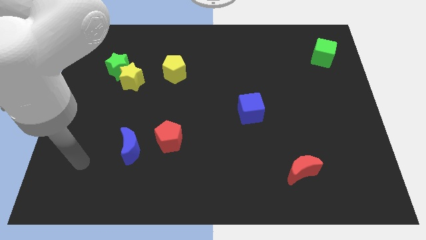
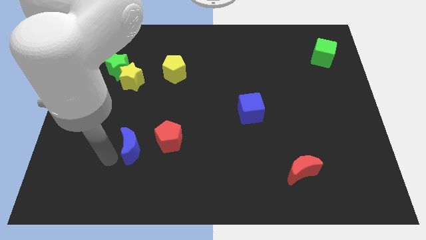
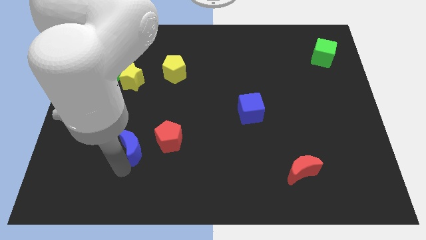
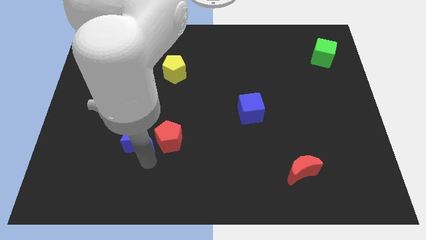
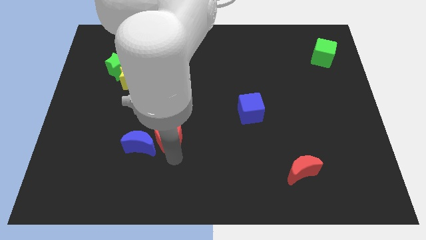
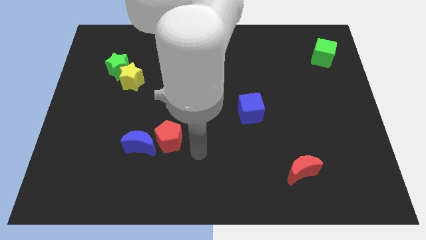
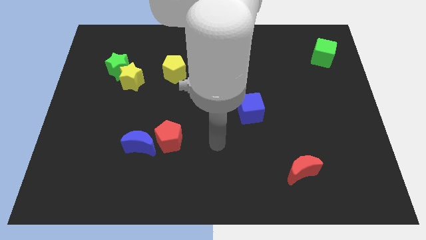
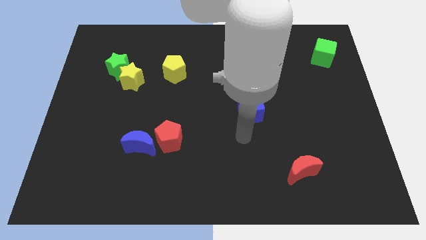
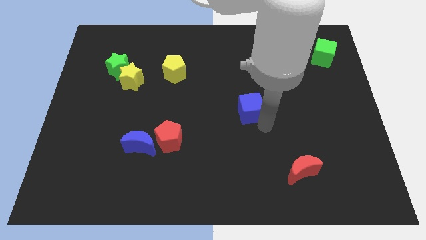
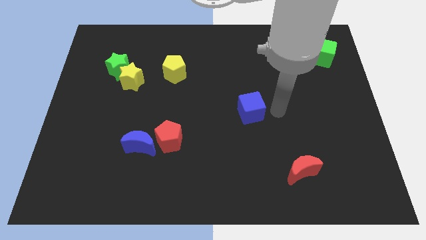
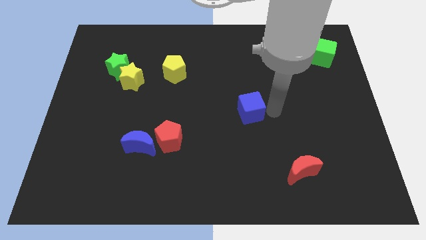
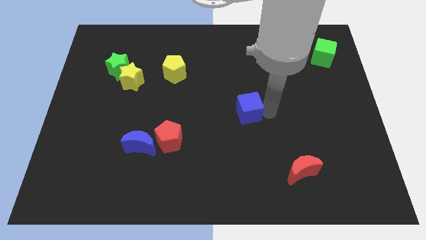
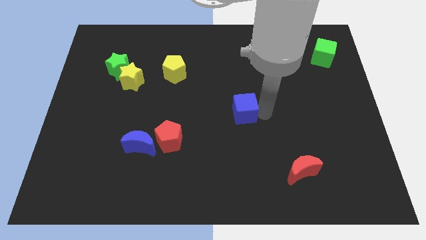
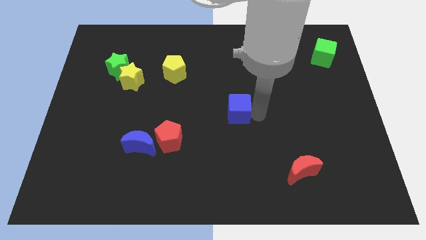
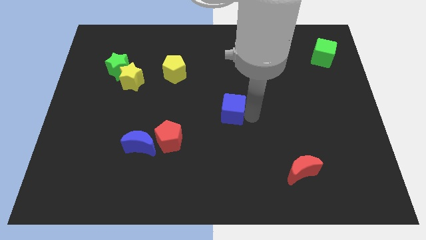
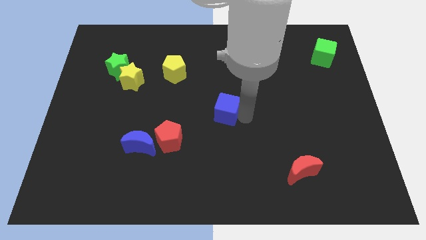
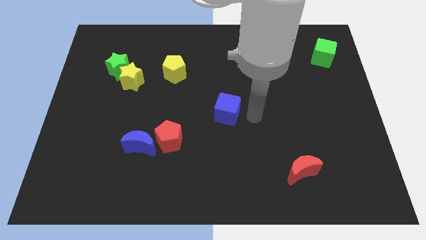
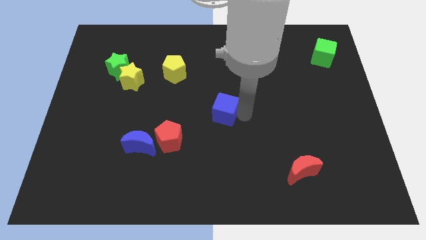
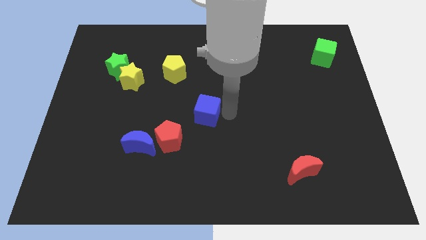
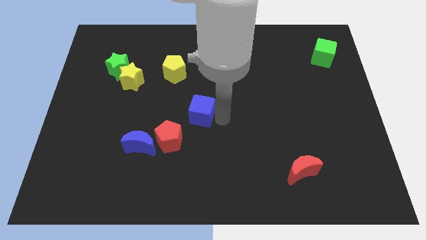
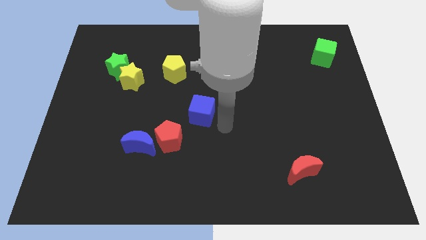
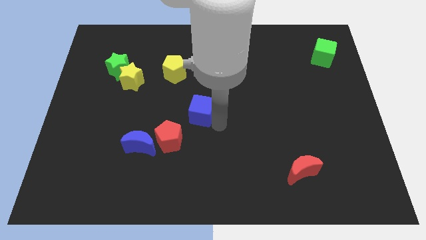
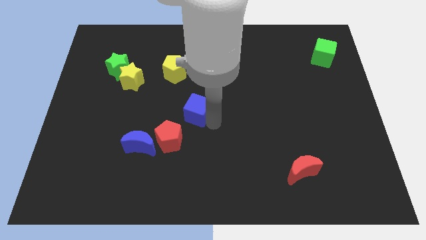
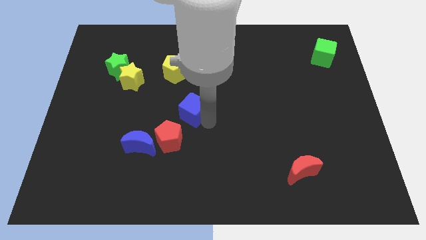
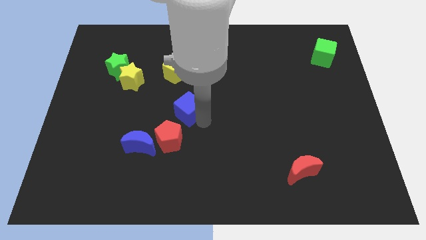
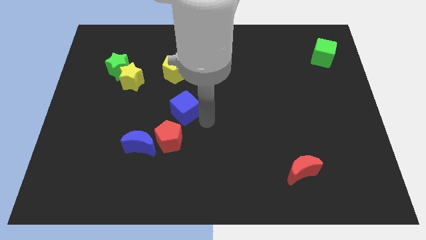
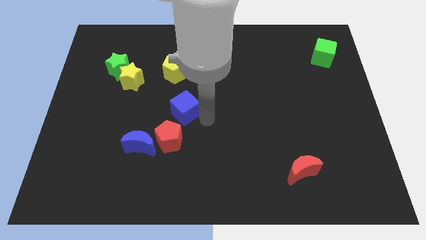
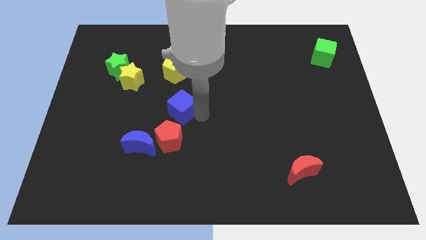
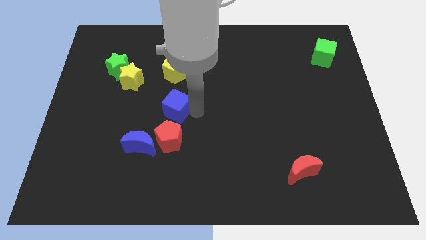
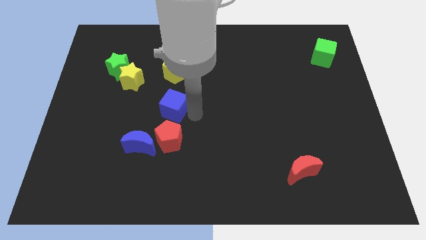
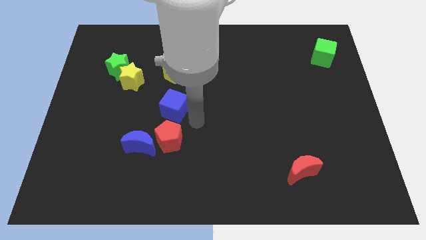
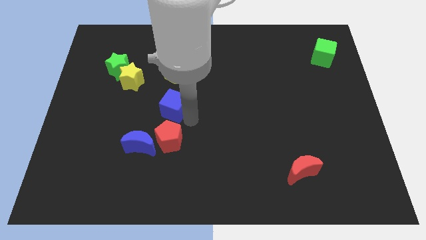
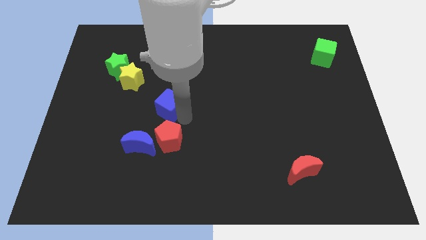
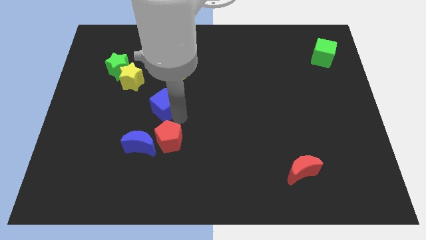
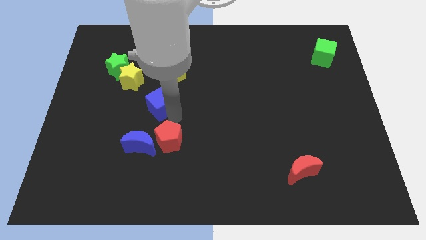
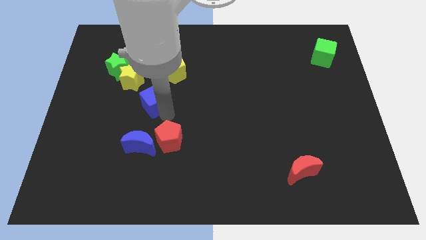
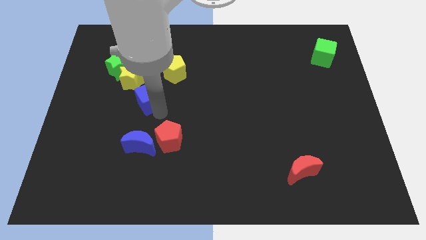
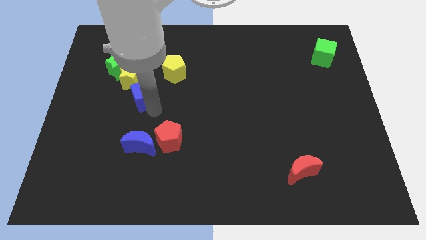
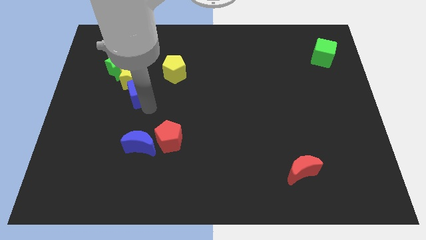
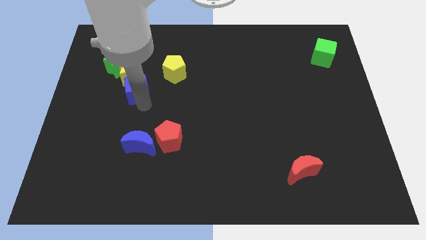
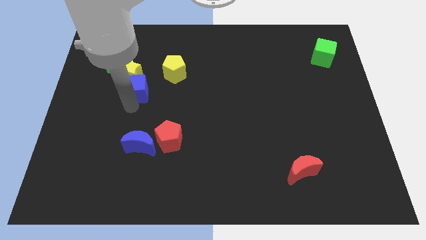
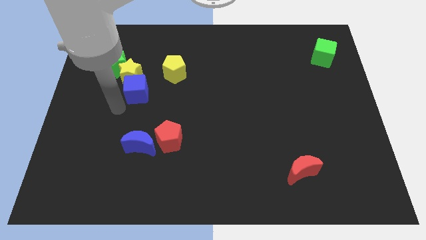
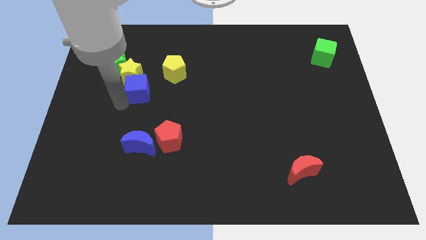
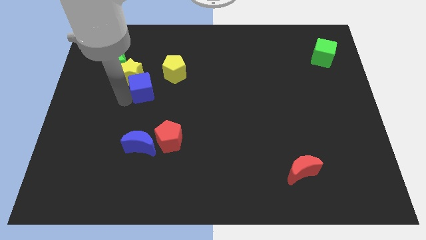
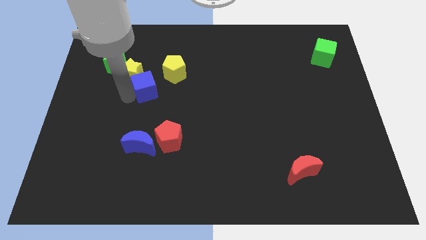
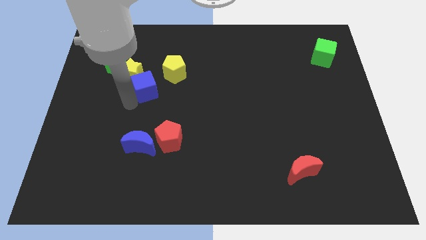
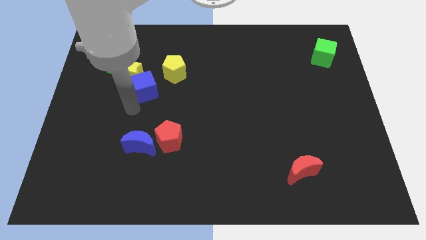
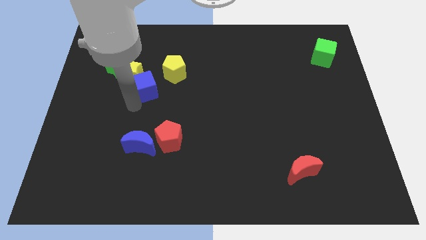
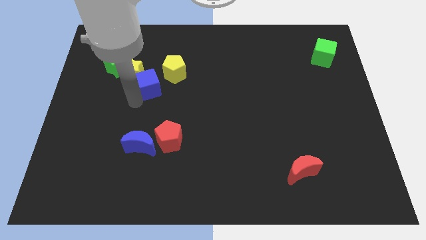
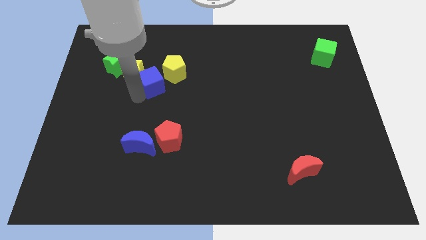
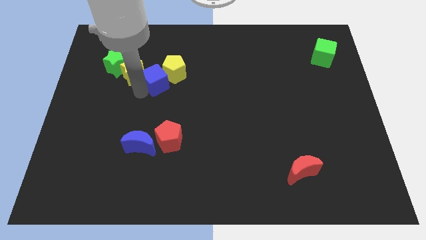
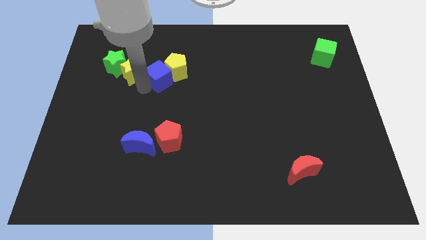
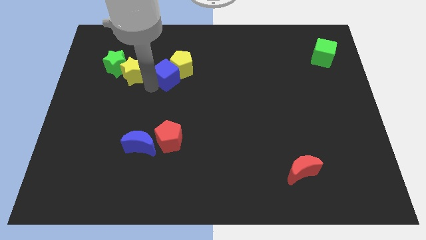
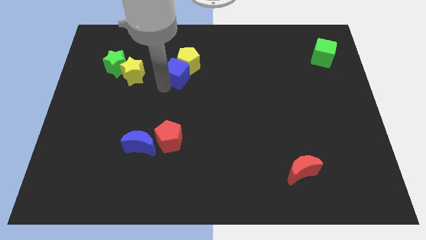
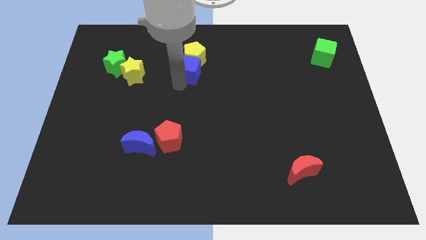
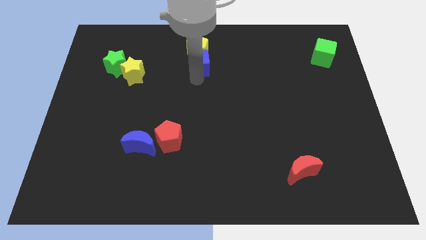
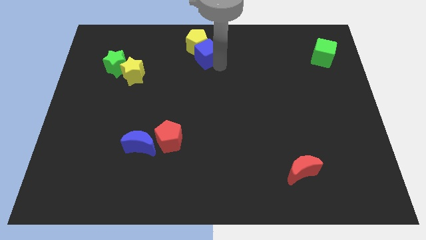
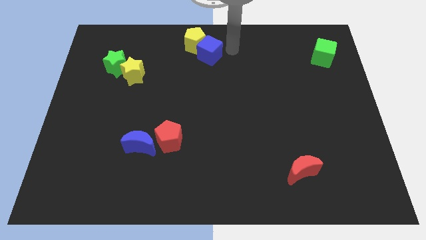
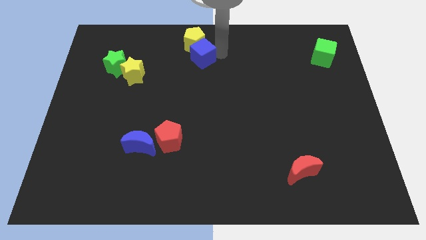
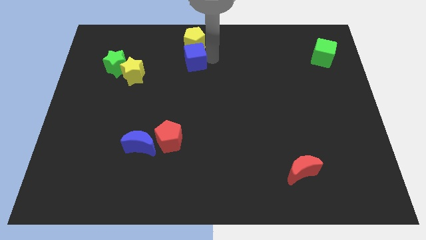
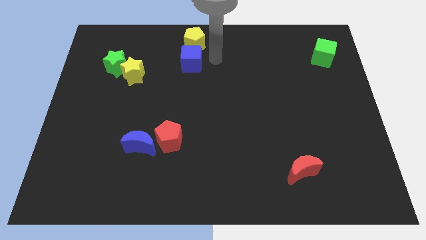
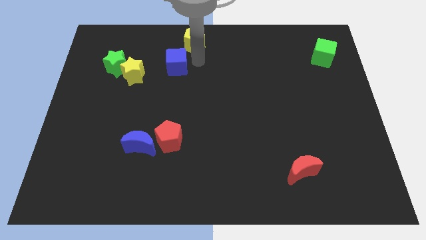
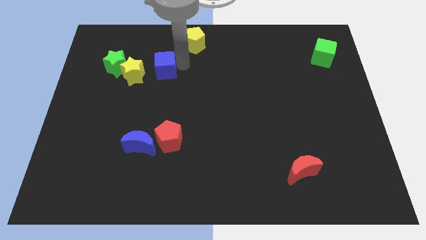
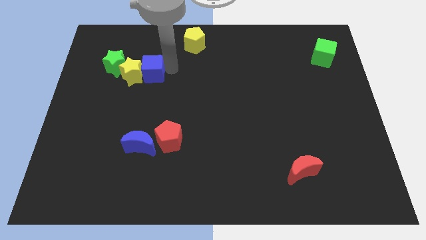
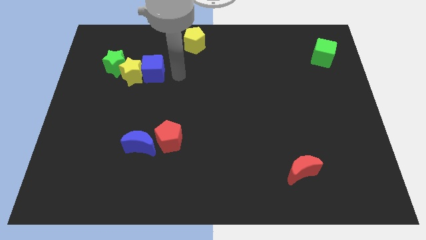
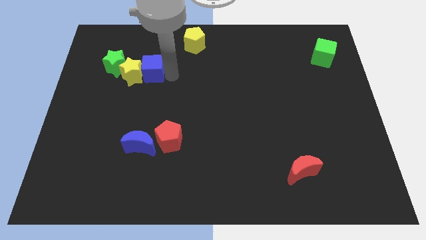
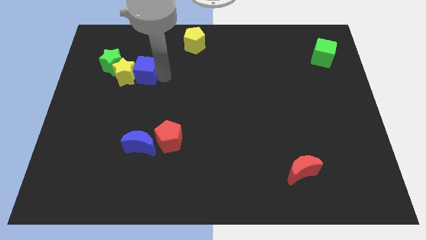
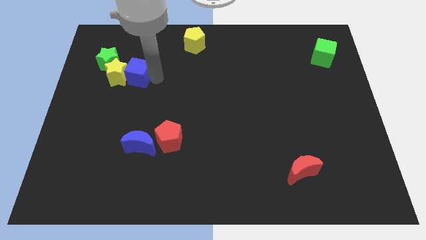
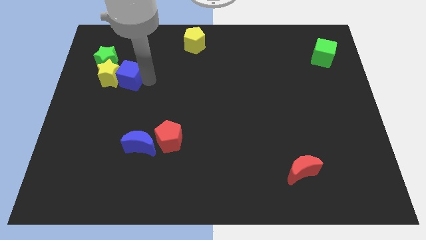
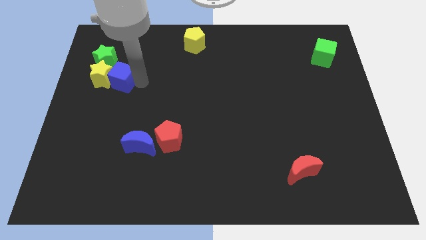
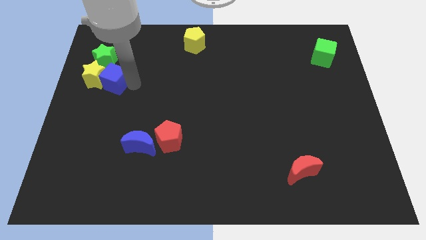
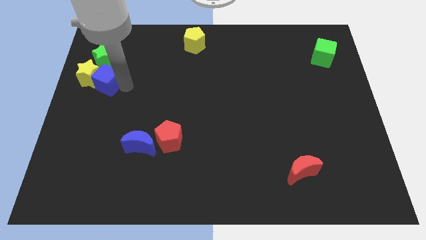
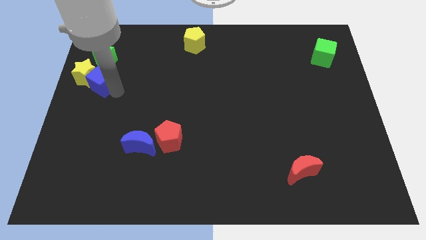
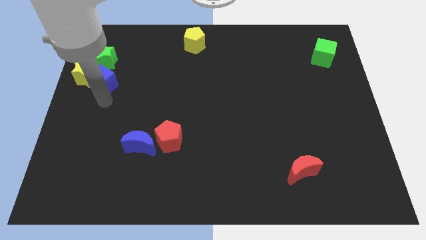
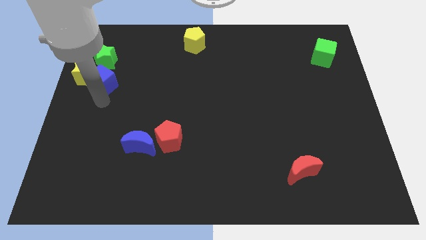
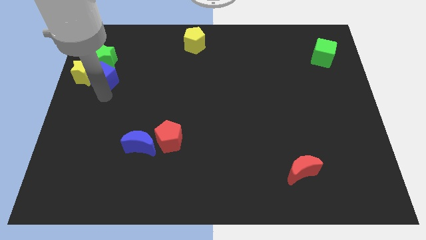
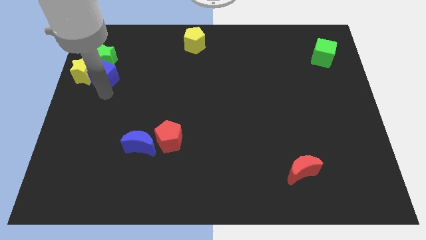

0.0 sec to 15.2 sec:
push the blue cube to the green star
